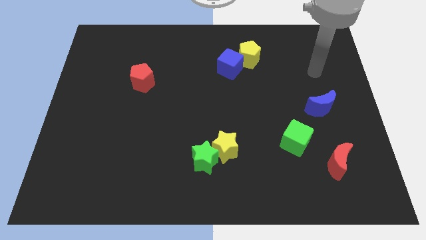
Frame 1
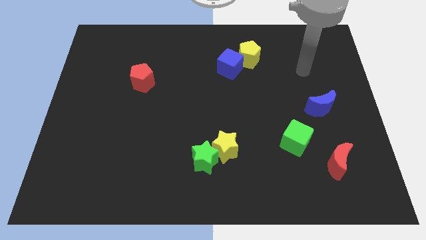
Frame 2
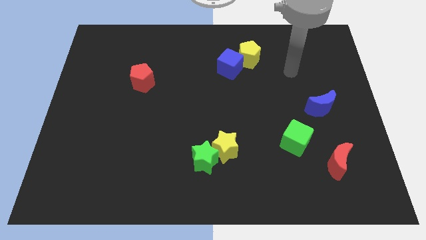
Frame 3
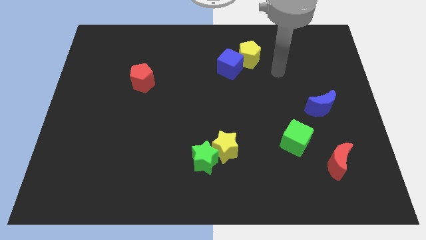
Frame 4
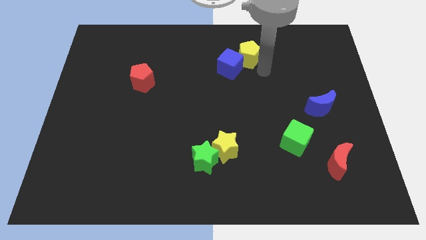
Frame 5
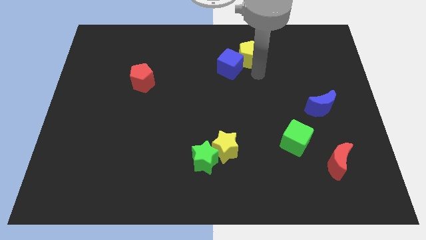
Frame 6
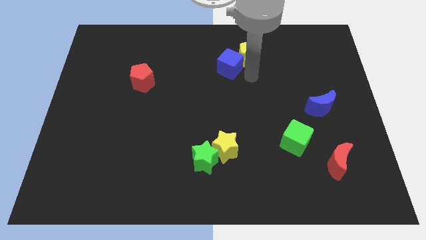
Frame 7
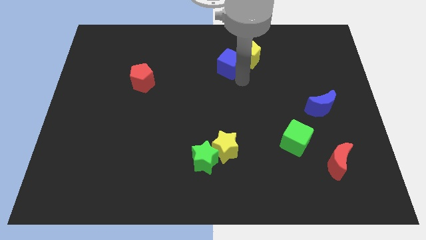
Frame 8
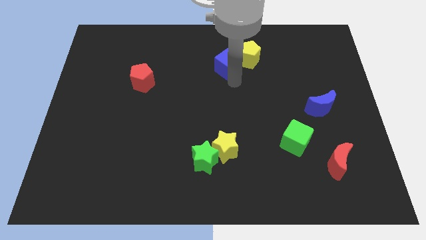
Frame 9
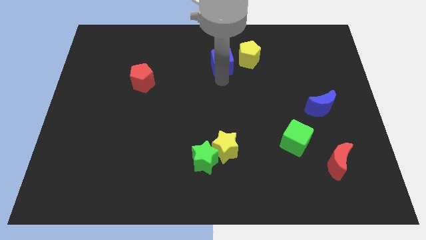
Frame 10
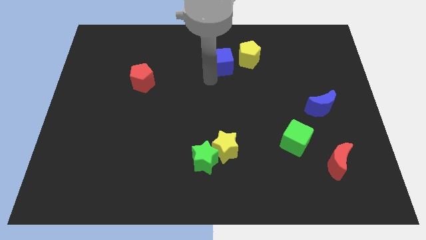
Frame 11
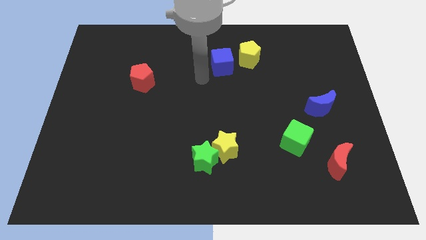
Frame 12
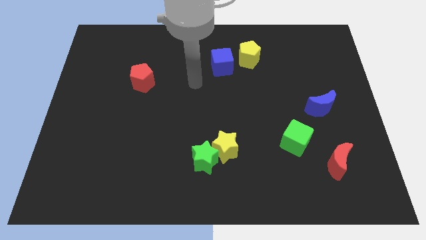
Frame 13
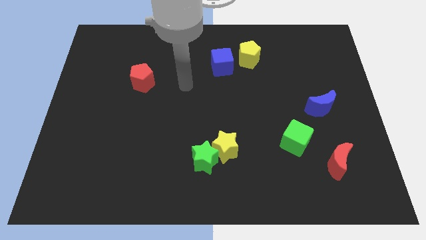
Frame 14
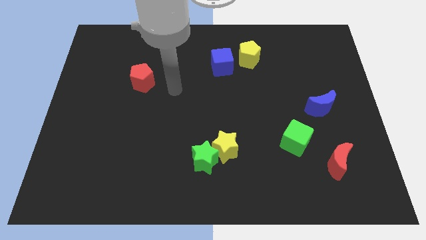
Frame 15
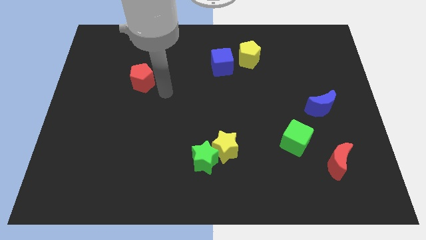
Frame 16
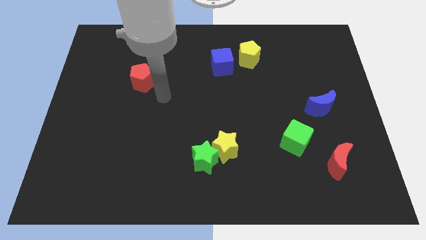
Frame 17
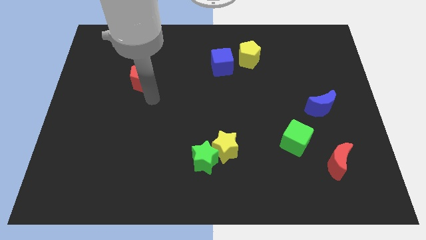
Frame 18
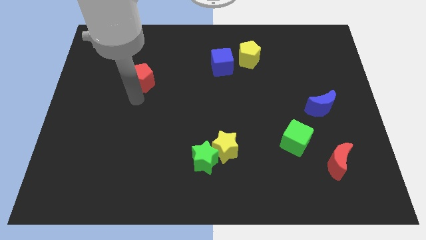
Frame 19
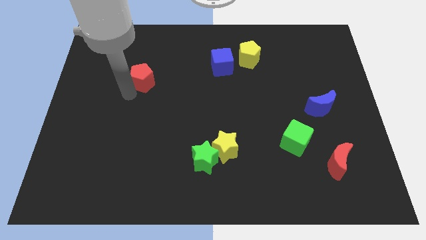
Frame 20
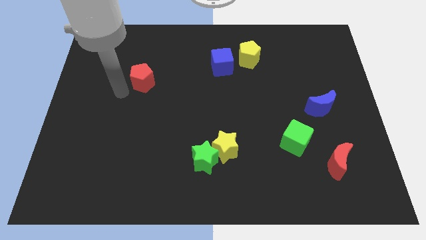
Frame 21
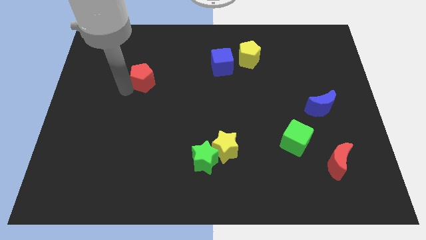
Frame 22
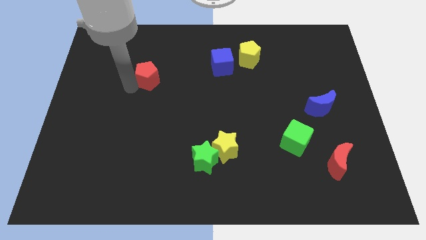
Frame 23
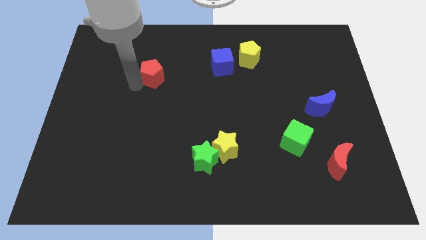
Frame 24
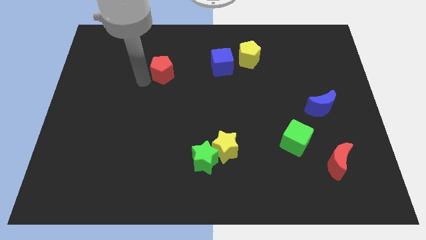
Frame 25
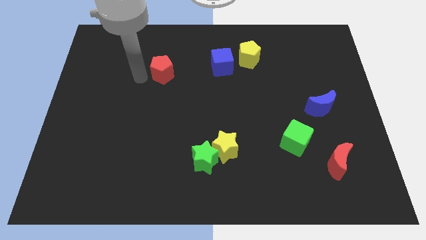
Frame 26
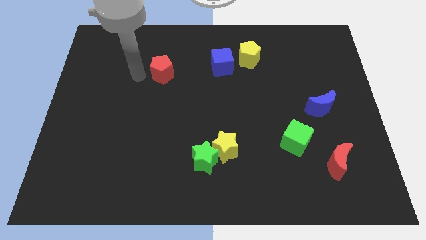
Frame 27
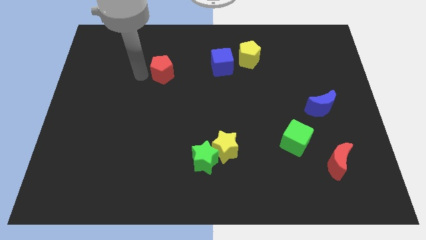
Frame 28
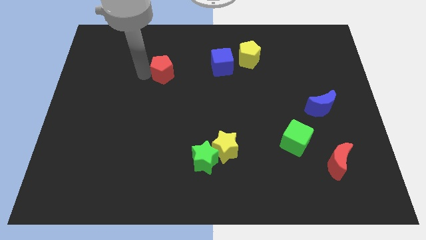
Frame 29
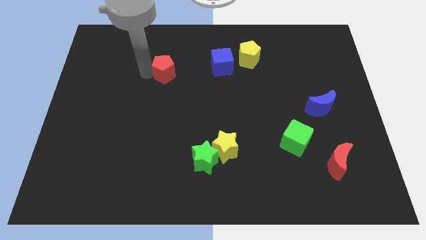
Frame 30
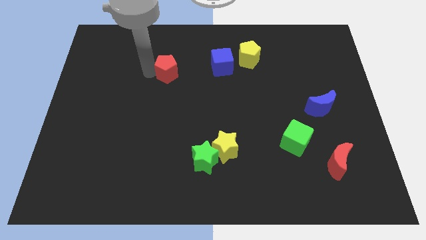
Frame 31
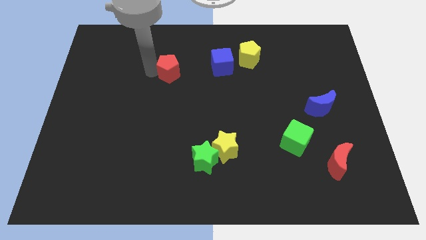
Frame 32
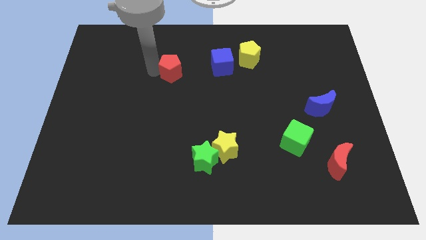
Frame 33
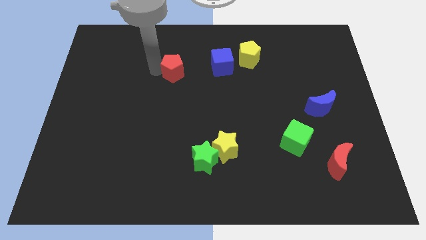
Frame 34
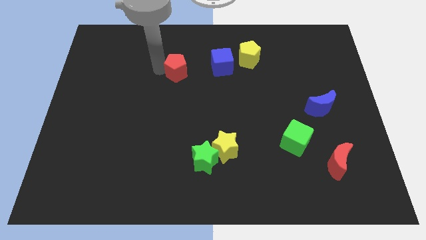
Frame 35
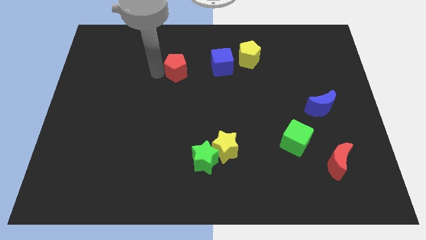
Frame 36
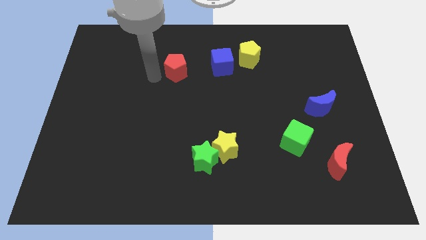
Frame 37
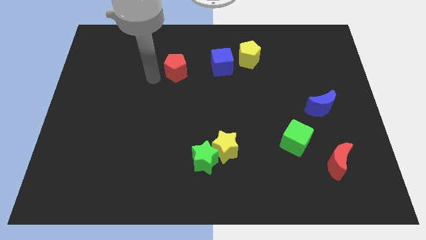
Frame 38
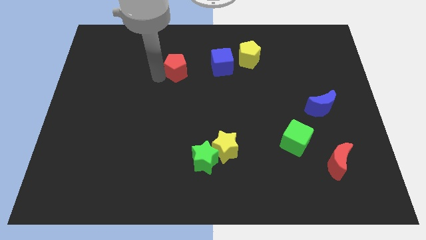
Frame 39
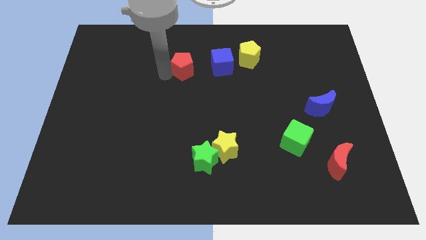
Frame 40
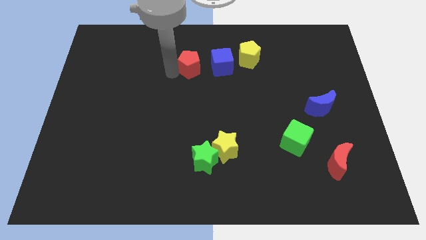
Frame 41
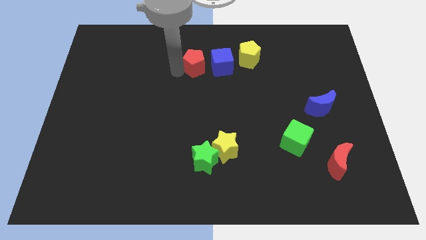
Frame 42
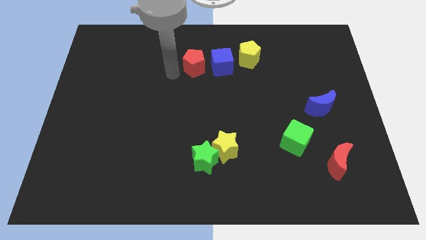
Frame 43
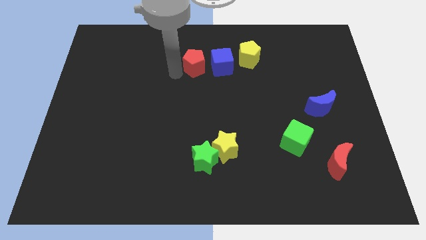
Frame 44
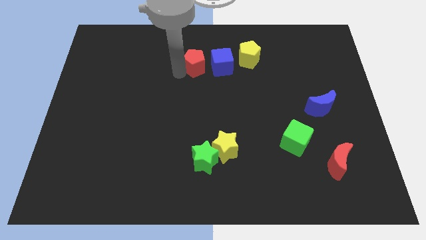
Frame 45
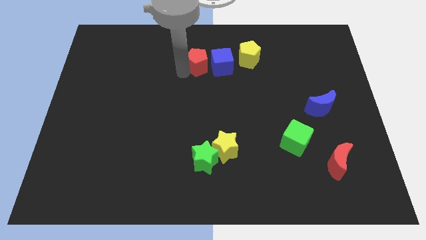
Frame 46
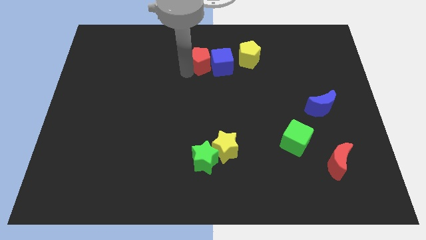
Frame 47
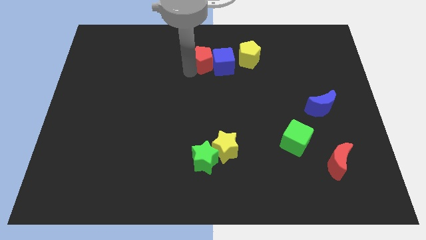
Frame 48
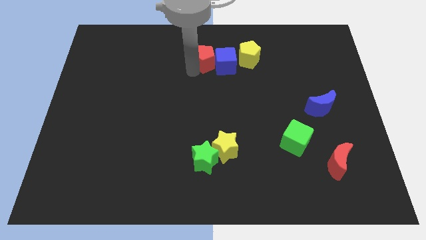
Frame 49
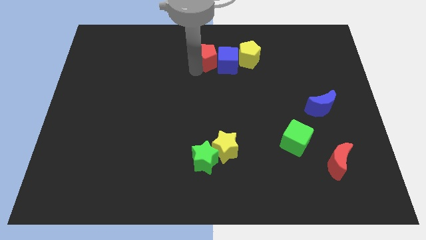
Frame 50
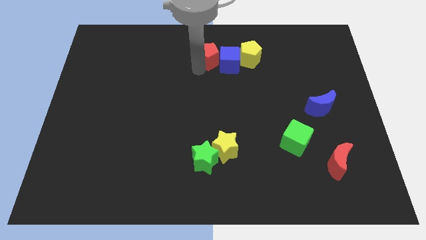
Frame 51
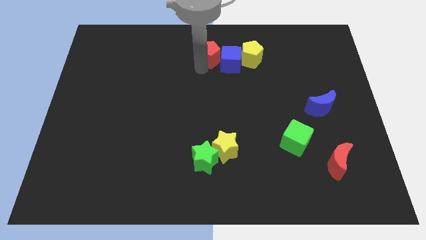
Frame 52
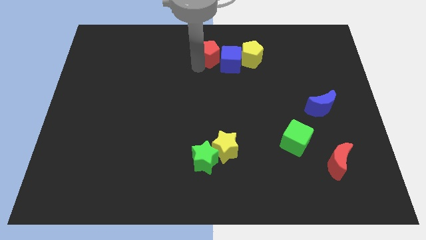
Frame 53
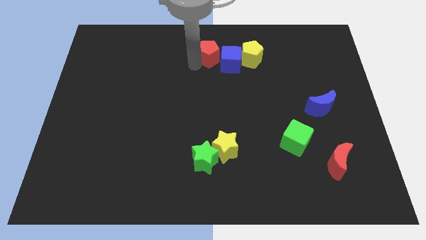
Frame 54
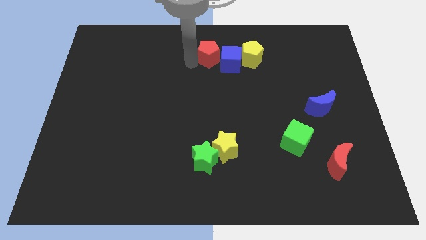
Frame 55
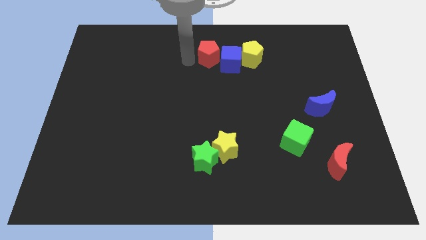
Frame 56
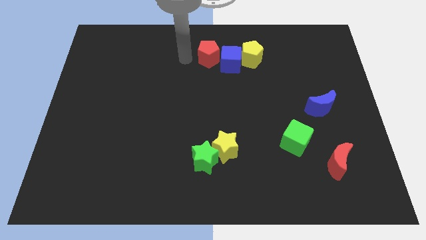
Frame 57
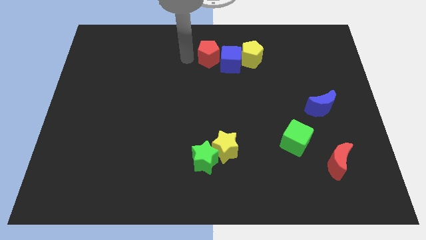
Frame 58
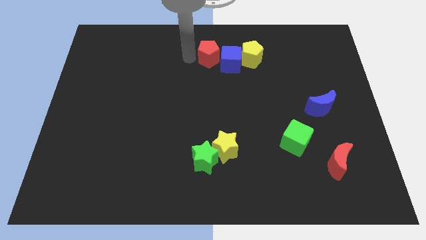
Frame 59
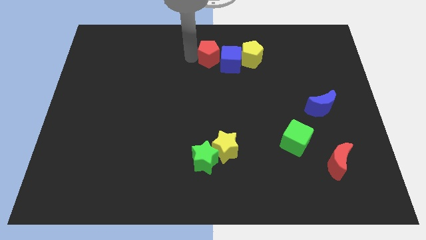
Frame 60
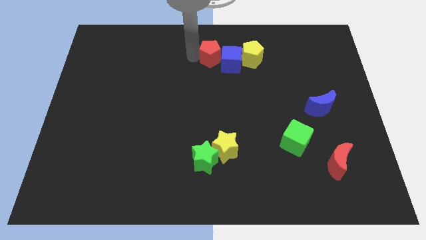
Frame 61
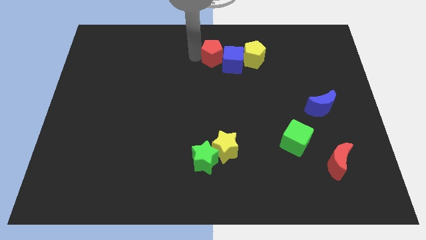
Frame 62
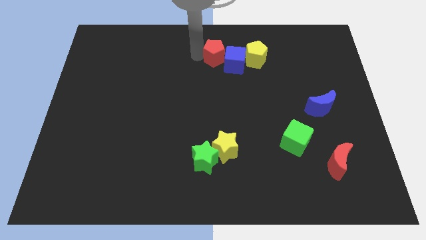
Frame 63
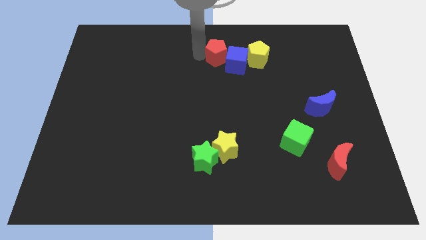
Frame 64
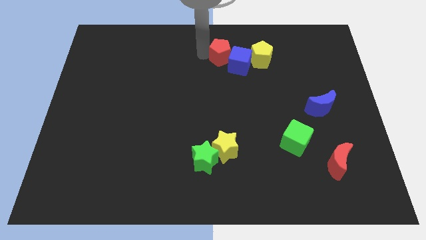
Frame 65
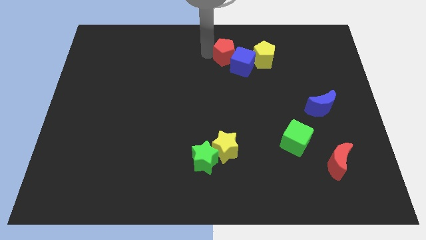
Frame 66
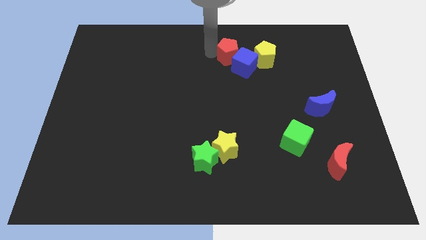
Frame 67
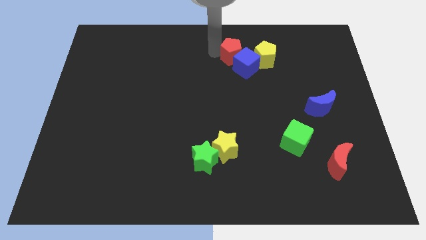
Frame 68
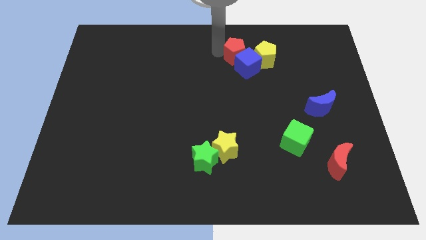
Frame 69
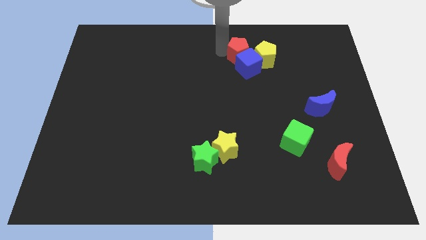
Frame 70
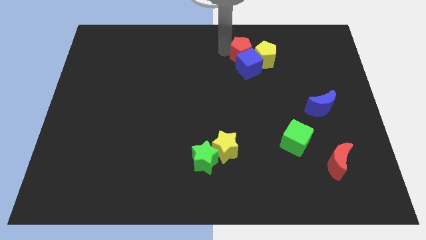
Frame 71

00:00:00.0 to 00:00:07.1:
push the red pentagon towards the yellow pentagon

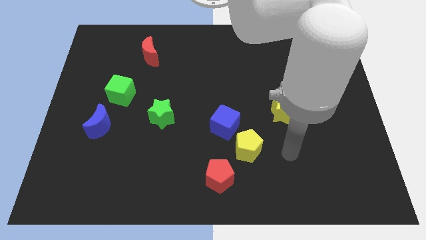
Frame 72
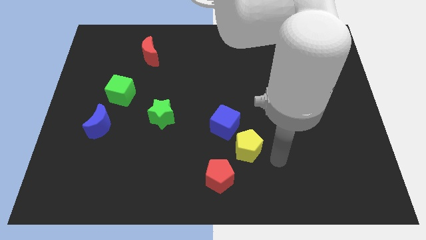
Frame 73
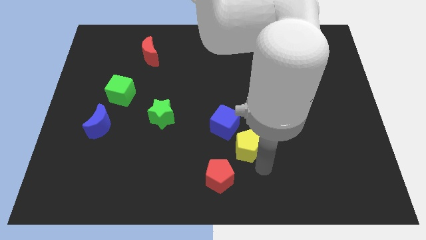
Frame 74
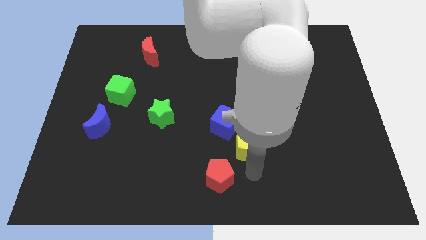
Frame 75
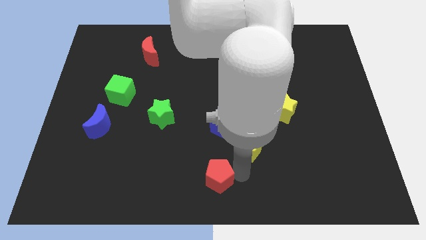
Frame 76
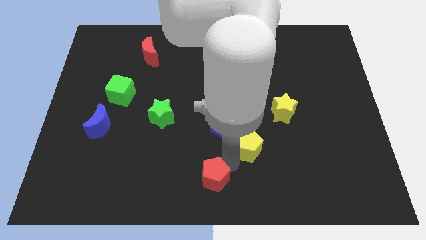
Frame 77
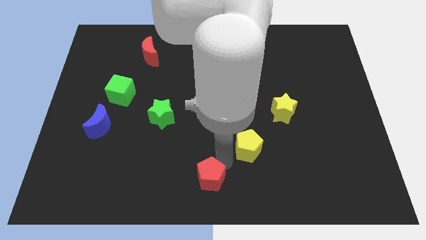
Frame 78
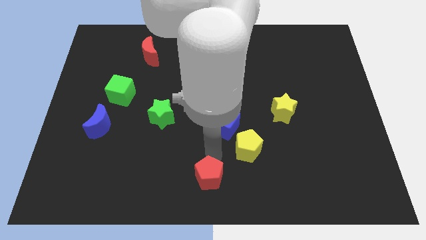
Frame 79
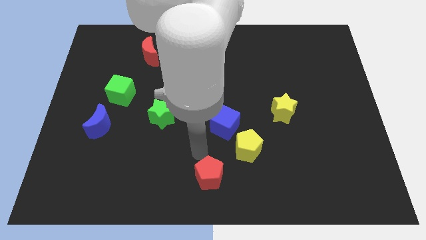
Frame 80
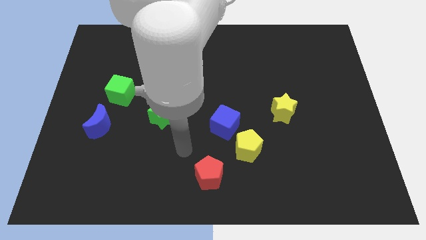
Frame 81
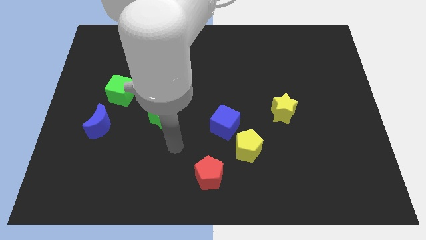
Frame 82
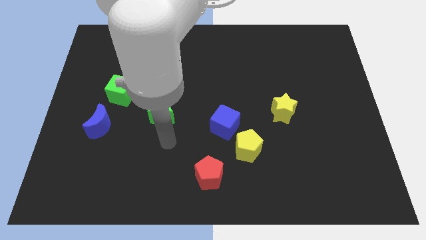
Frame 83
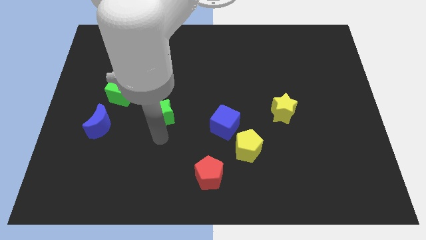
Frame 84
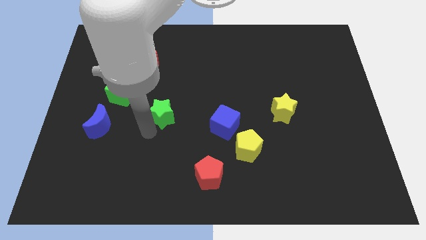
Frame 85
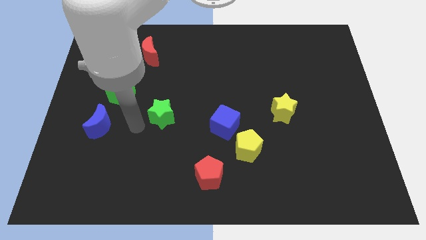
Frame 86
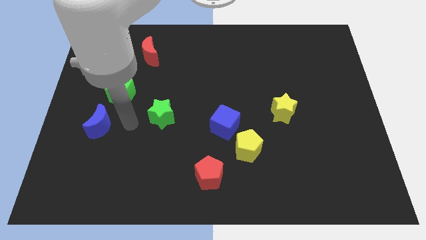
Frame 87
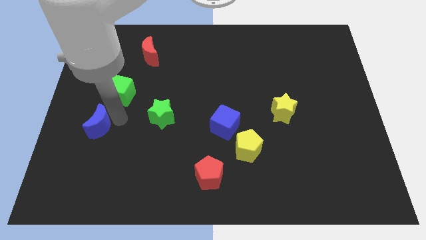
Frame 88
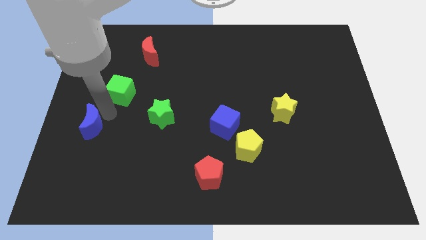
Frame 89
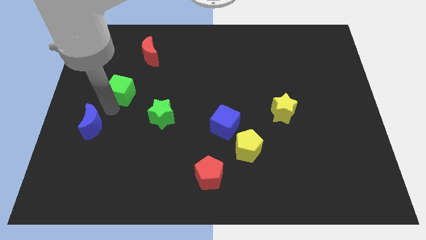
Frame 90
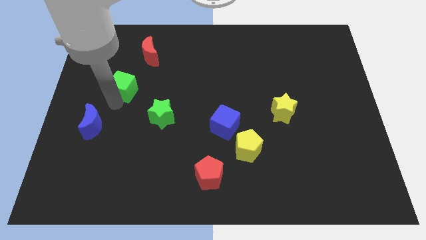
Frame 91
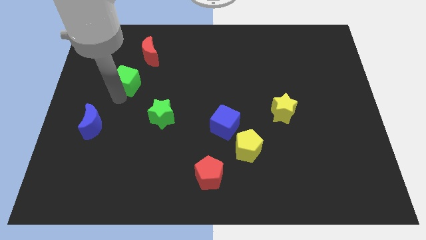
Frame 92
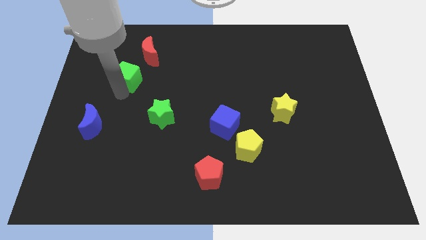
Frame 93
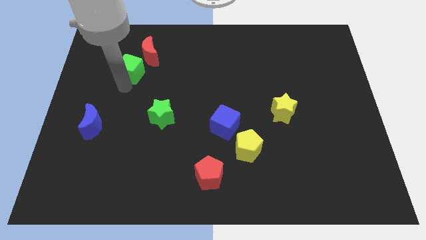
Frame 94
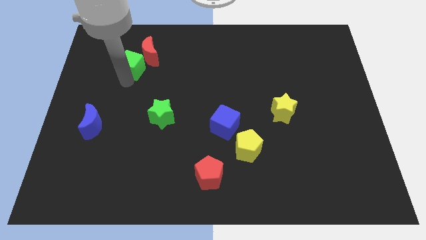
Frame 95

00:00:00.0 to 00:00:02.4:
slide the green cube close to the red moon
